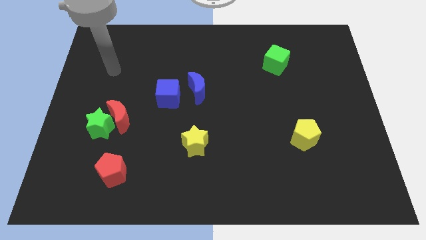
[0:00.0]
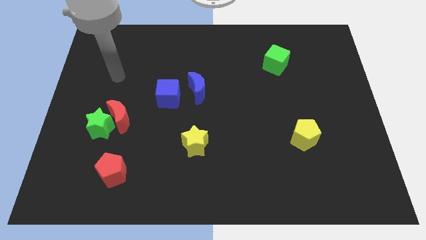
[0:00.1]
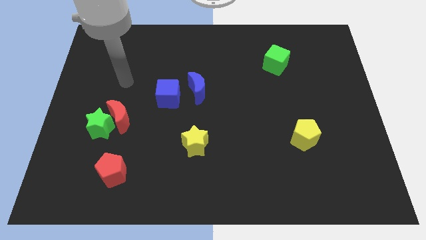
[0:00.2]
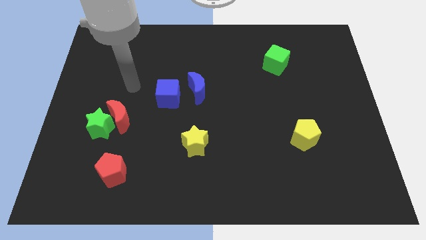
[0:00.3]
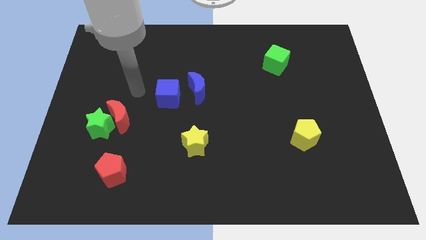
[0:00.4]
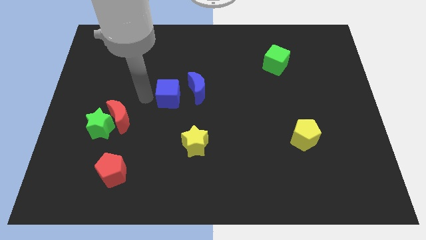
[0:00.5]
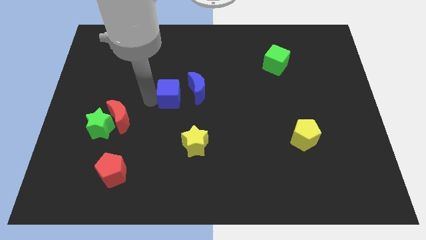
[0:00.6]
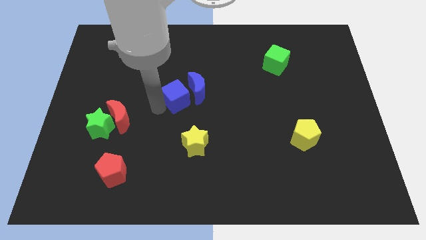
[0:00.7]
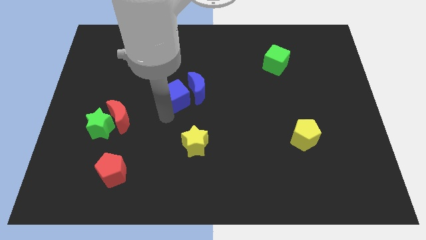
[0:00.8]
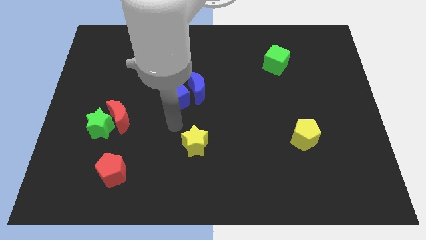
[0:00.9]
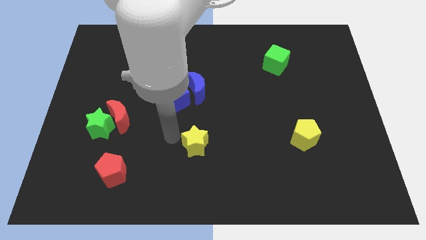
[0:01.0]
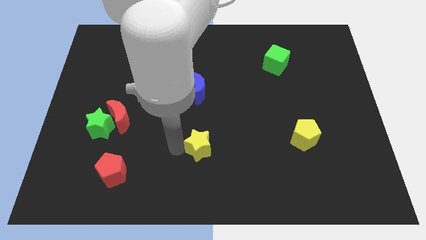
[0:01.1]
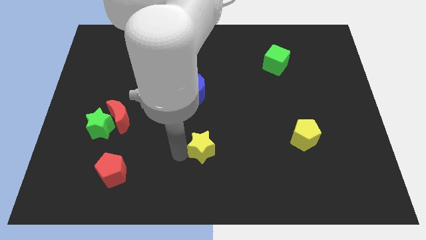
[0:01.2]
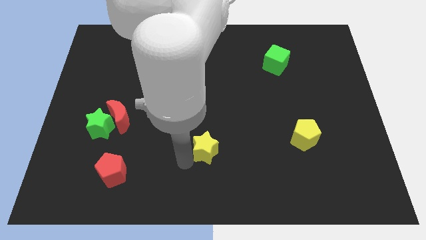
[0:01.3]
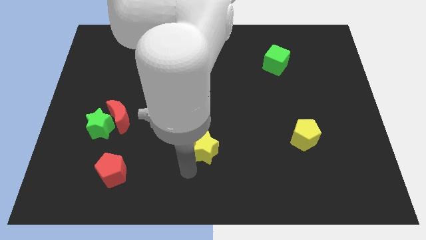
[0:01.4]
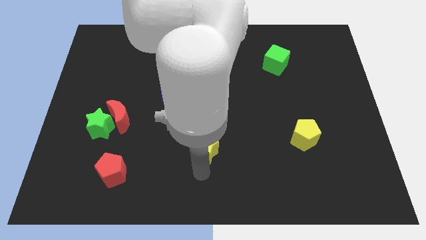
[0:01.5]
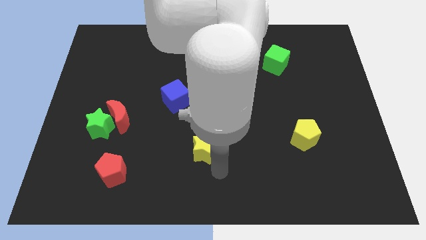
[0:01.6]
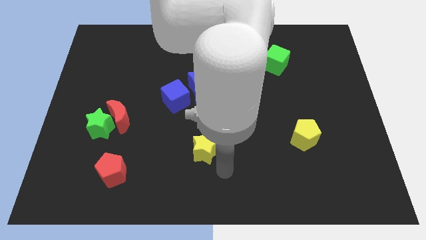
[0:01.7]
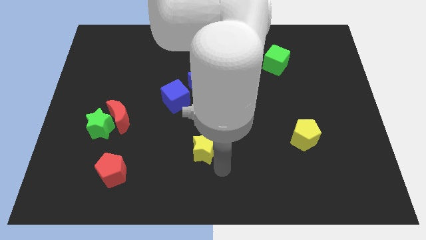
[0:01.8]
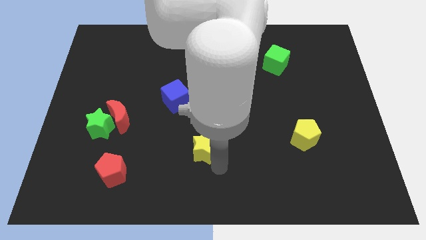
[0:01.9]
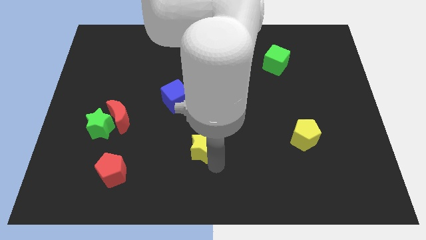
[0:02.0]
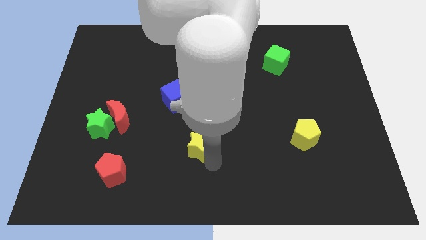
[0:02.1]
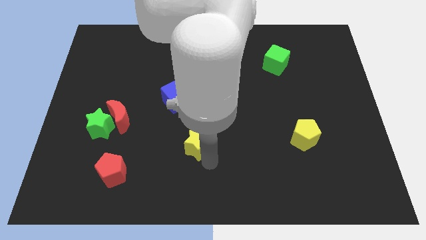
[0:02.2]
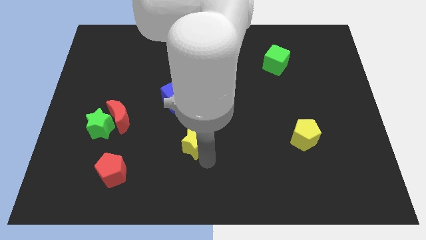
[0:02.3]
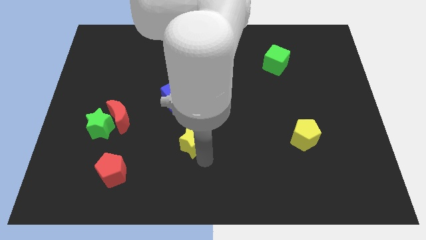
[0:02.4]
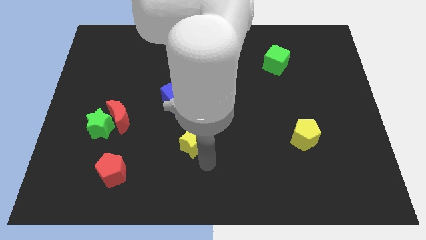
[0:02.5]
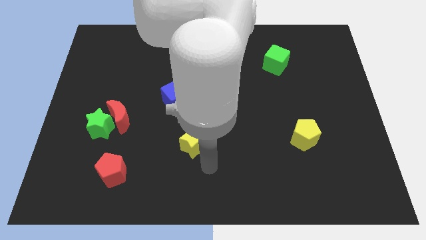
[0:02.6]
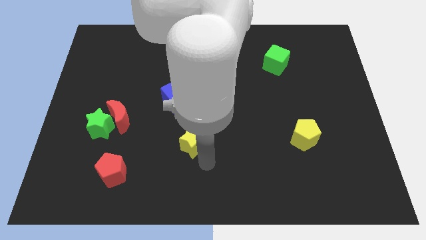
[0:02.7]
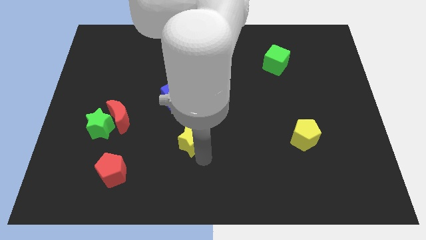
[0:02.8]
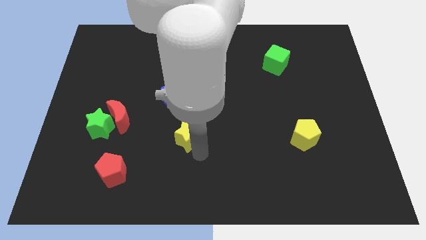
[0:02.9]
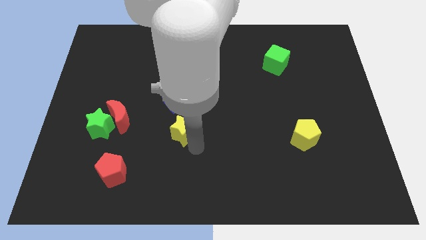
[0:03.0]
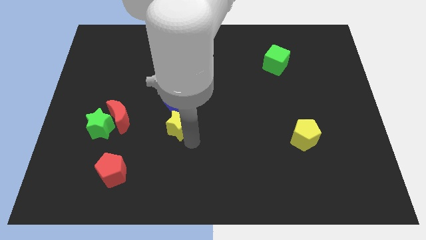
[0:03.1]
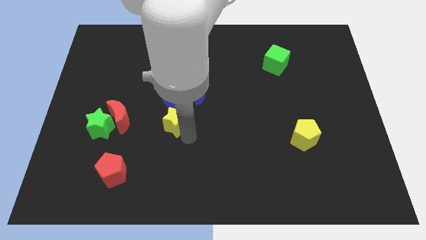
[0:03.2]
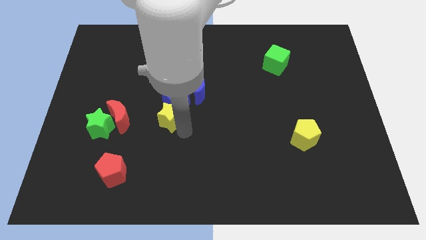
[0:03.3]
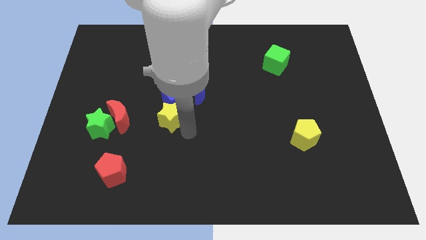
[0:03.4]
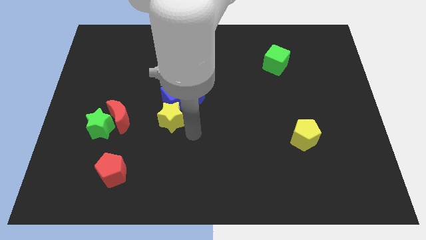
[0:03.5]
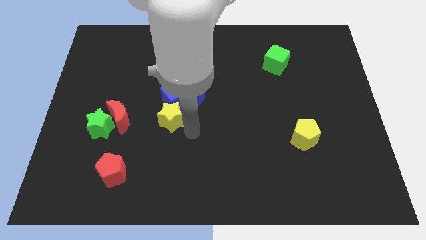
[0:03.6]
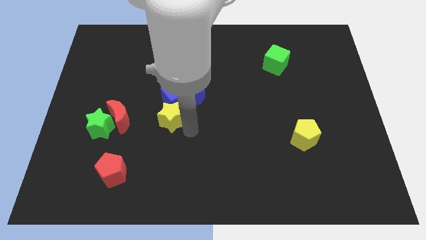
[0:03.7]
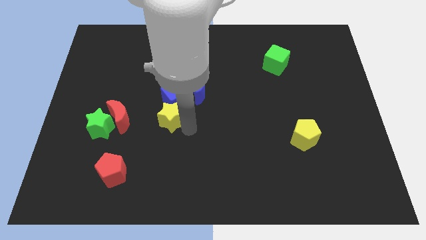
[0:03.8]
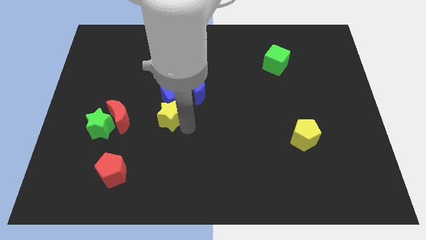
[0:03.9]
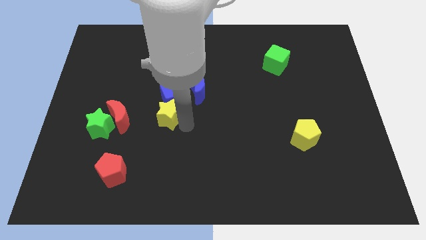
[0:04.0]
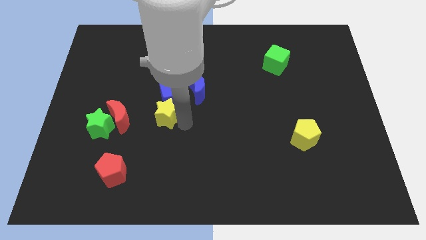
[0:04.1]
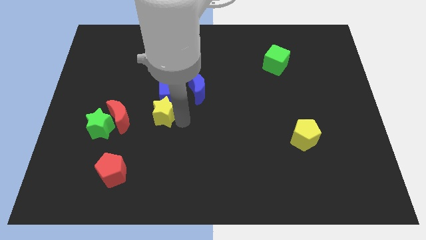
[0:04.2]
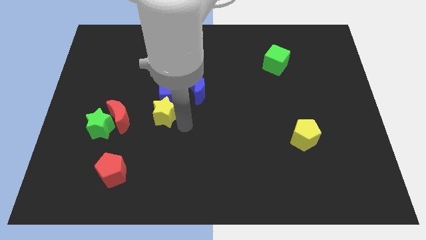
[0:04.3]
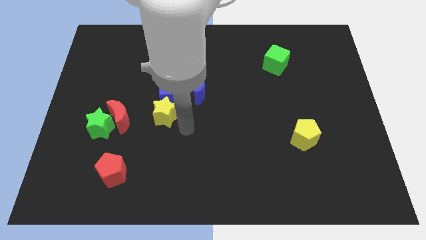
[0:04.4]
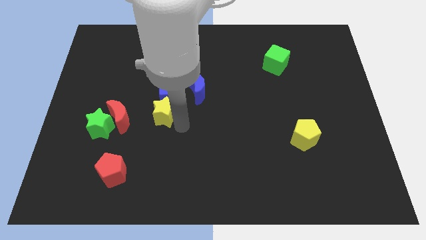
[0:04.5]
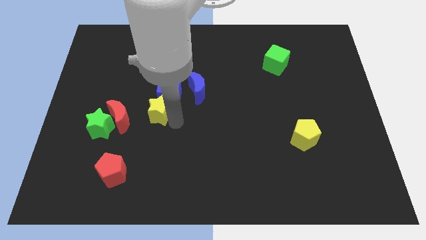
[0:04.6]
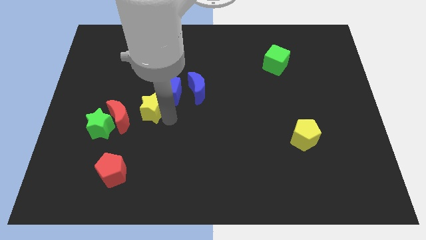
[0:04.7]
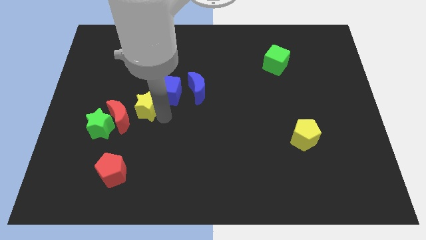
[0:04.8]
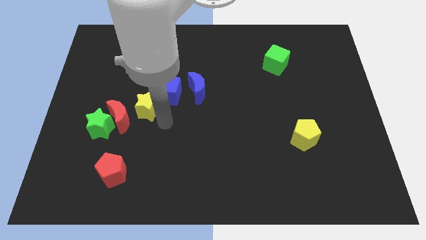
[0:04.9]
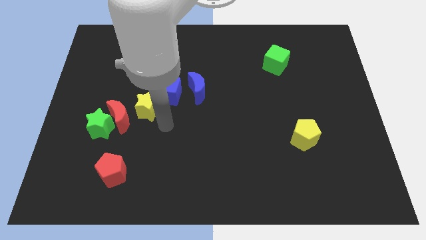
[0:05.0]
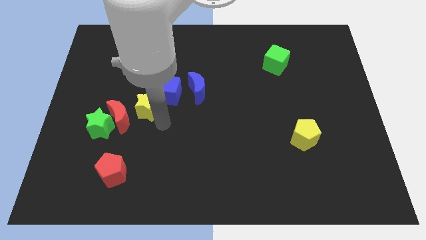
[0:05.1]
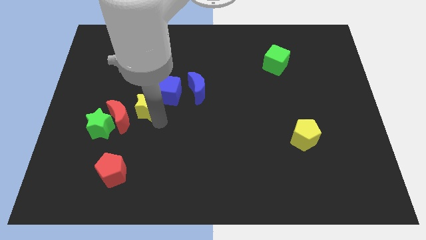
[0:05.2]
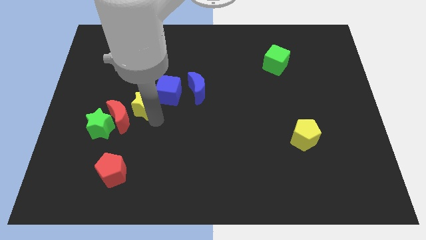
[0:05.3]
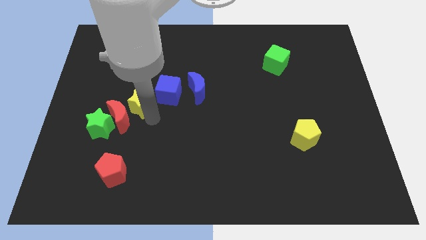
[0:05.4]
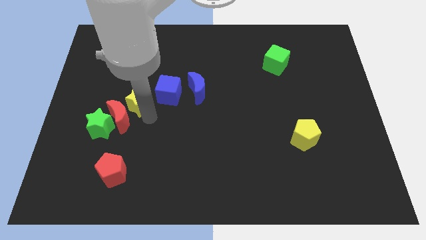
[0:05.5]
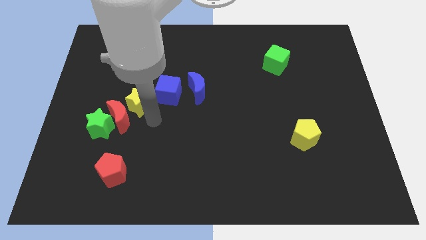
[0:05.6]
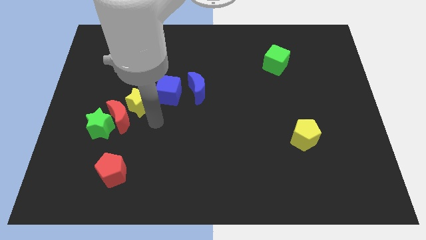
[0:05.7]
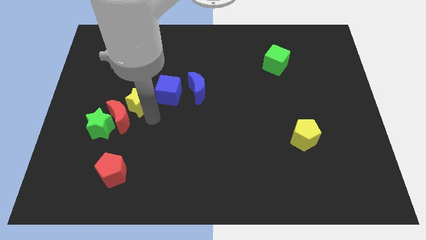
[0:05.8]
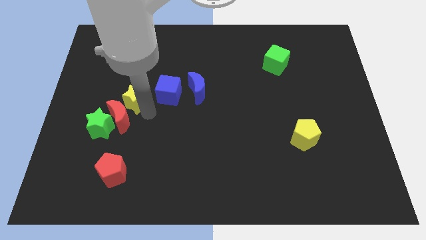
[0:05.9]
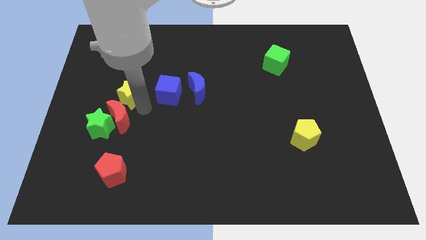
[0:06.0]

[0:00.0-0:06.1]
push the yellow star up and then left

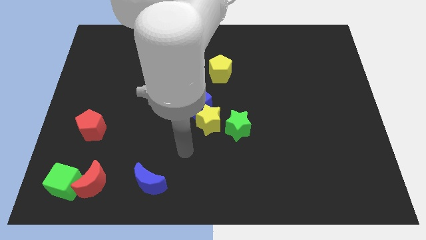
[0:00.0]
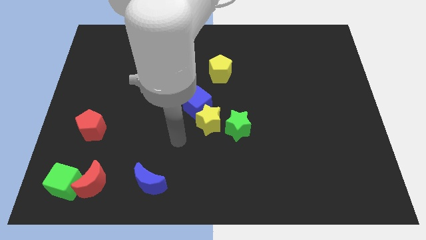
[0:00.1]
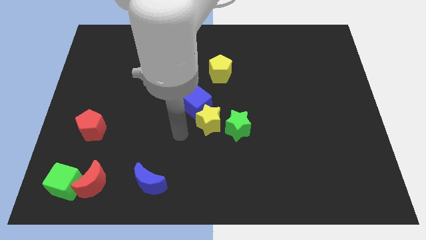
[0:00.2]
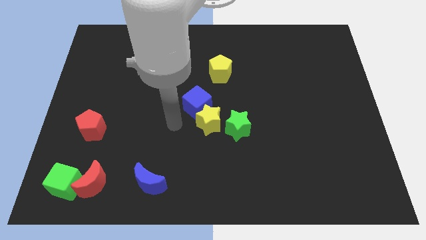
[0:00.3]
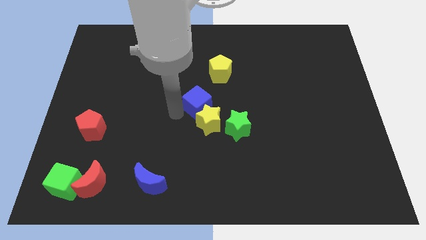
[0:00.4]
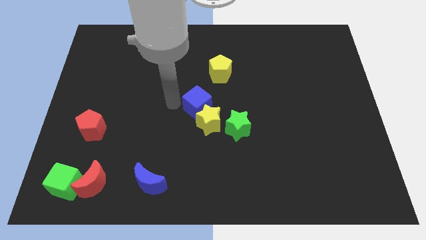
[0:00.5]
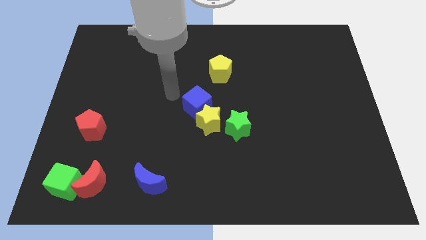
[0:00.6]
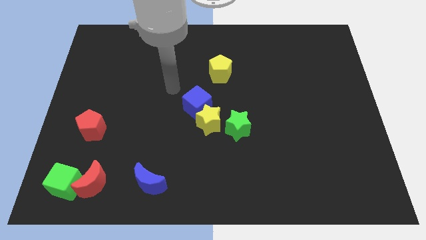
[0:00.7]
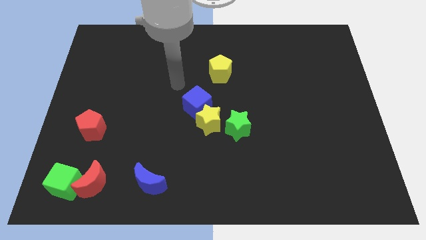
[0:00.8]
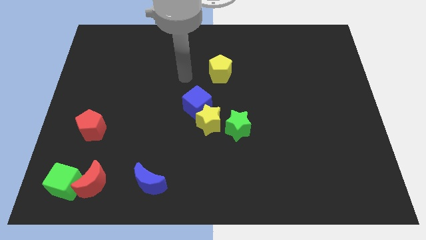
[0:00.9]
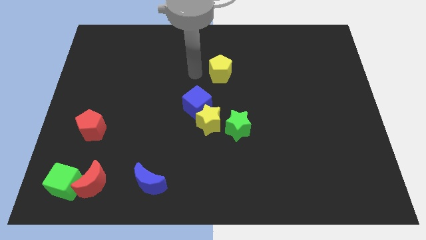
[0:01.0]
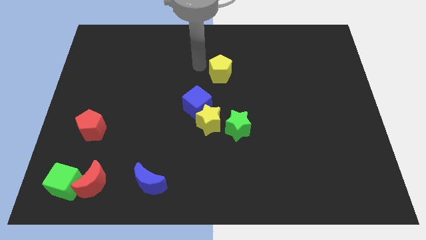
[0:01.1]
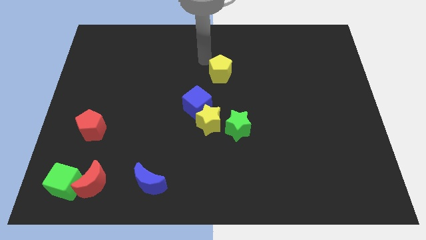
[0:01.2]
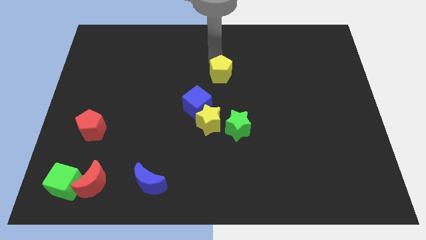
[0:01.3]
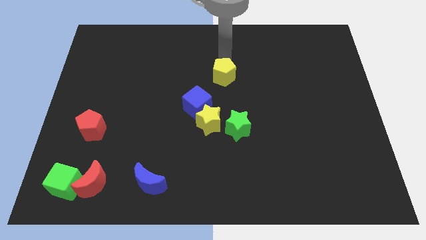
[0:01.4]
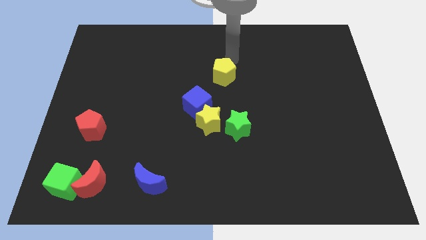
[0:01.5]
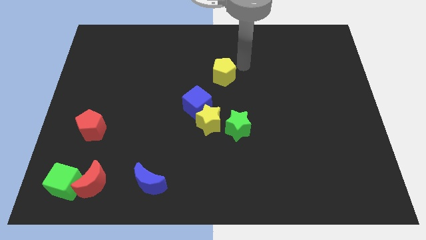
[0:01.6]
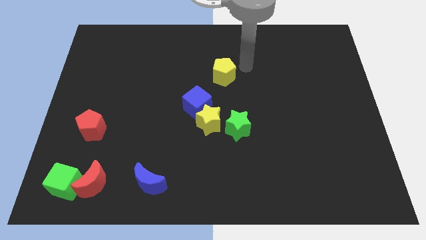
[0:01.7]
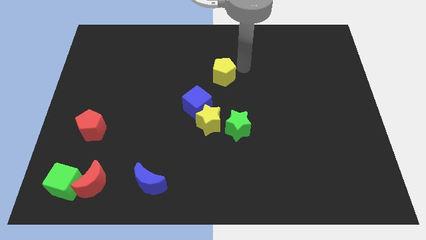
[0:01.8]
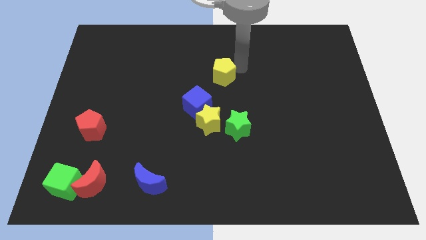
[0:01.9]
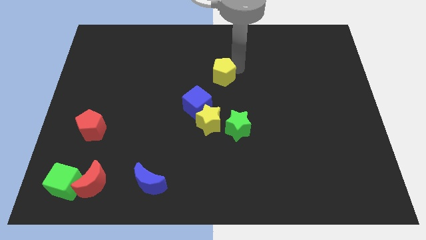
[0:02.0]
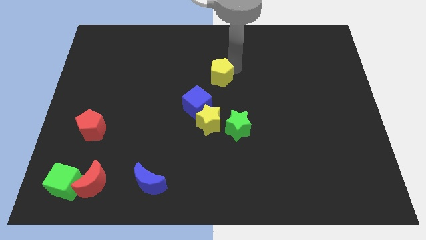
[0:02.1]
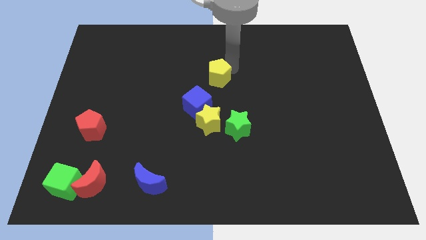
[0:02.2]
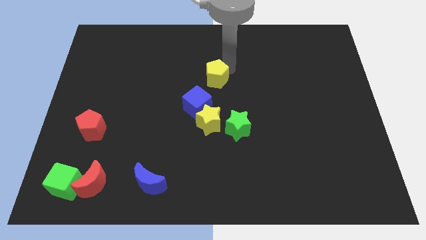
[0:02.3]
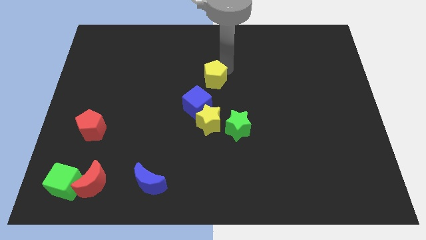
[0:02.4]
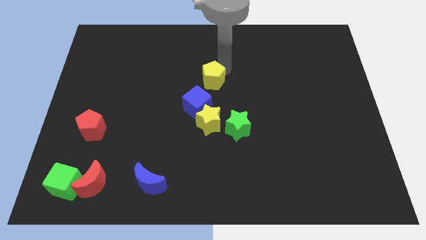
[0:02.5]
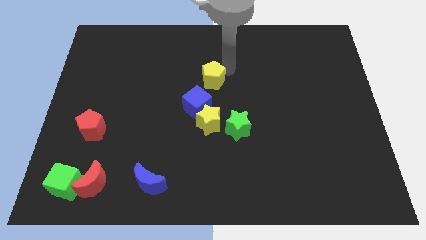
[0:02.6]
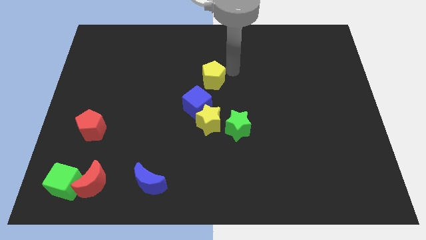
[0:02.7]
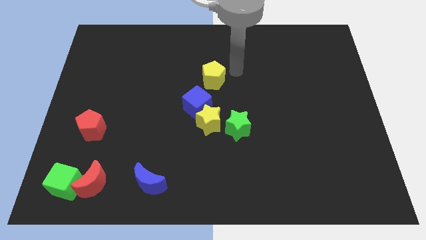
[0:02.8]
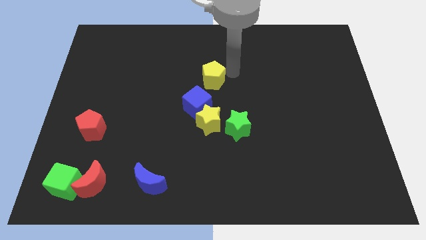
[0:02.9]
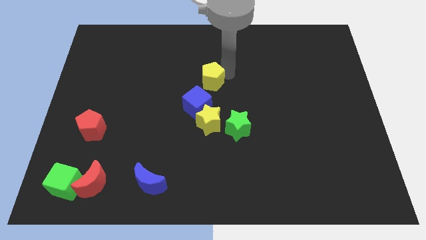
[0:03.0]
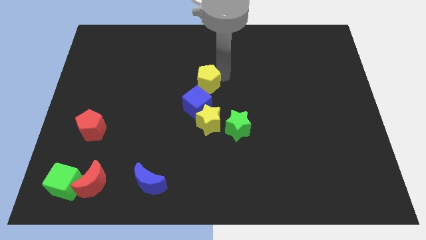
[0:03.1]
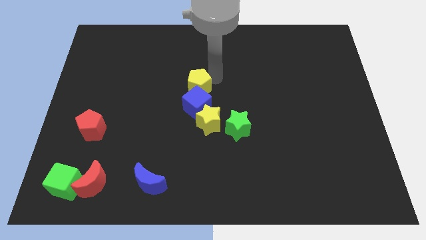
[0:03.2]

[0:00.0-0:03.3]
push the yellow pentagon downwards and left diagonally a little bit
